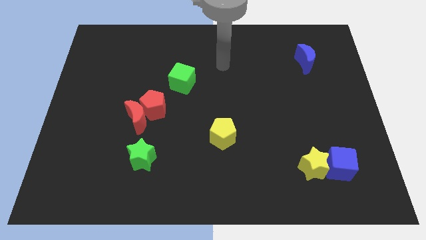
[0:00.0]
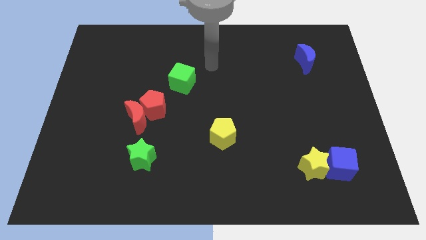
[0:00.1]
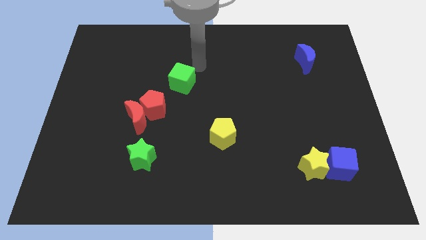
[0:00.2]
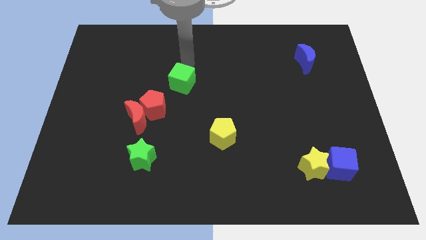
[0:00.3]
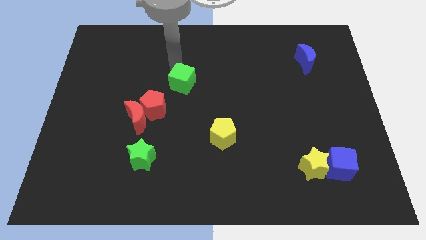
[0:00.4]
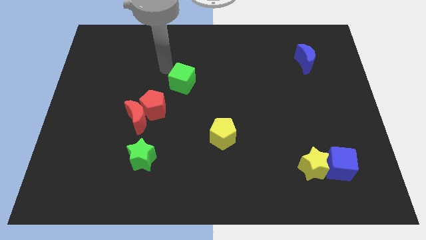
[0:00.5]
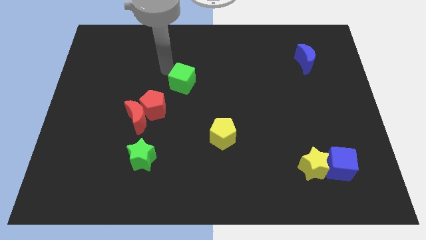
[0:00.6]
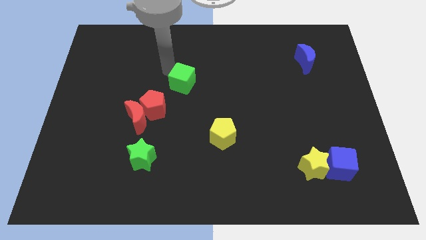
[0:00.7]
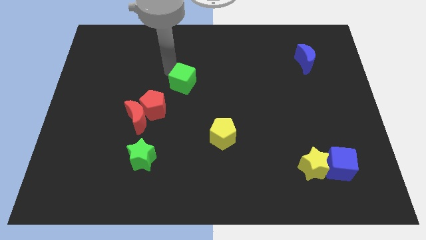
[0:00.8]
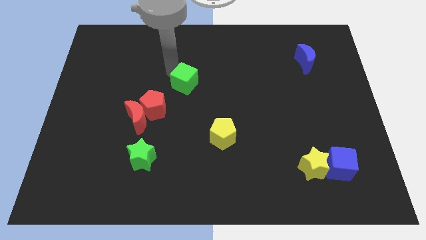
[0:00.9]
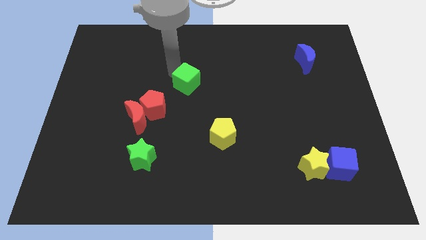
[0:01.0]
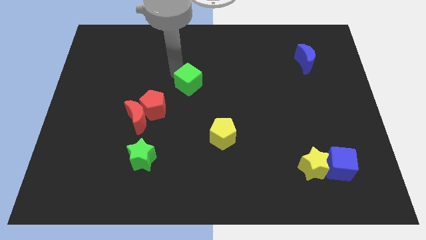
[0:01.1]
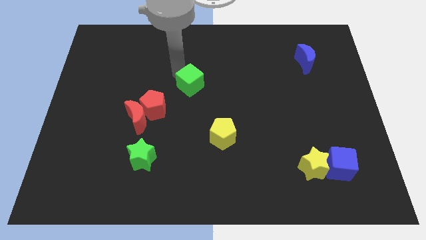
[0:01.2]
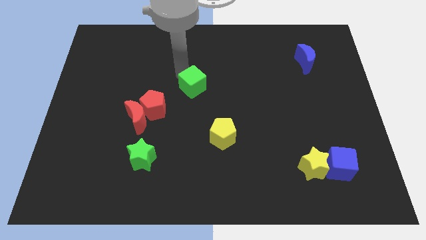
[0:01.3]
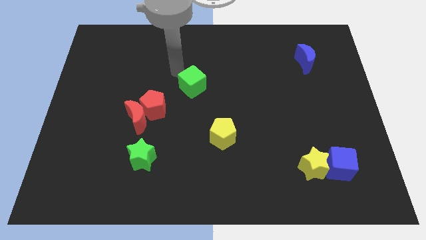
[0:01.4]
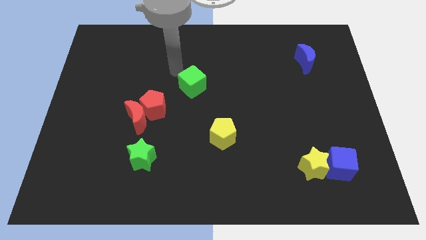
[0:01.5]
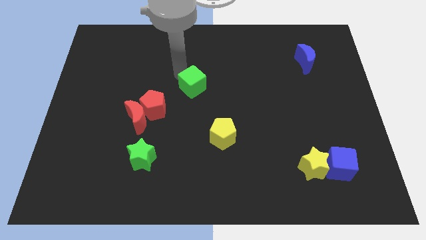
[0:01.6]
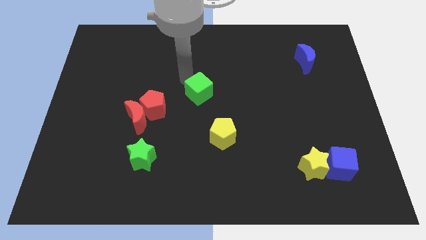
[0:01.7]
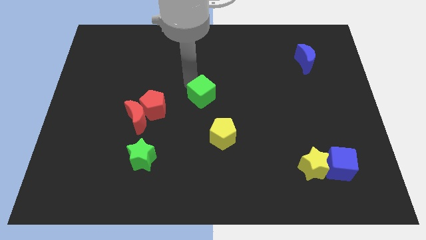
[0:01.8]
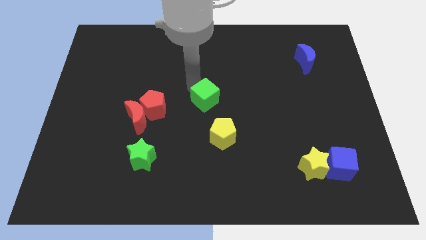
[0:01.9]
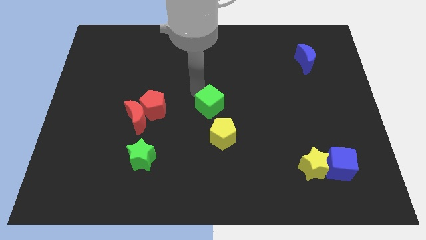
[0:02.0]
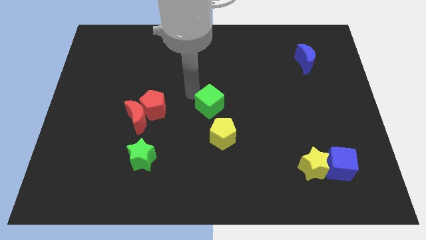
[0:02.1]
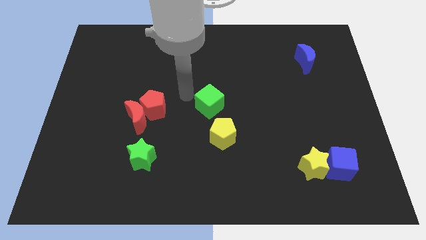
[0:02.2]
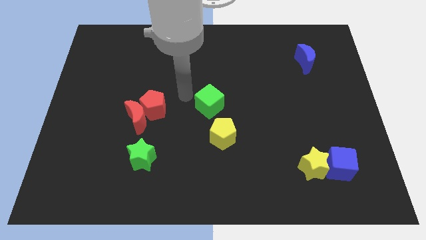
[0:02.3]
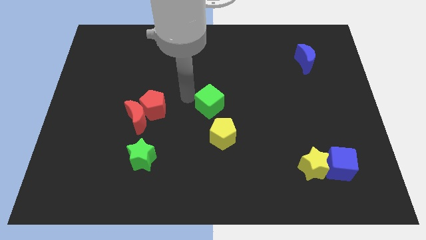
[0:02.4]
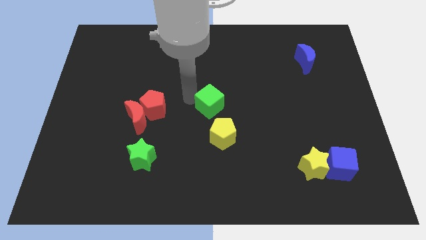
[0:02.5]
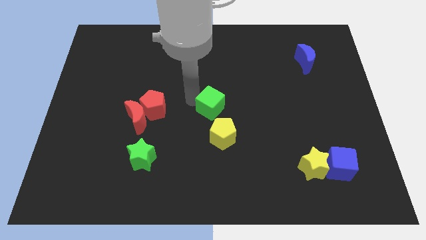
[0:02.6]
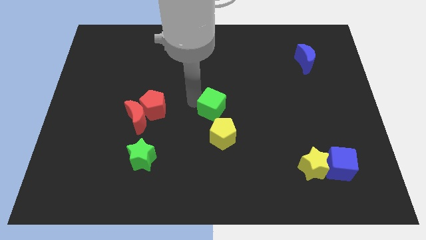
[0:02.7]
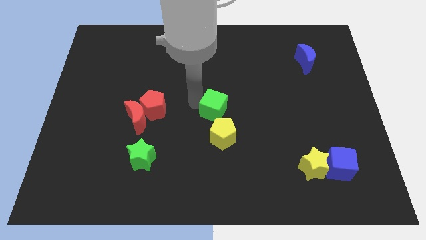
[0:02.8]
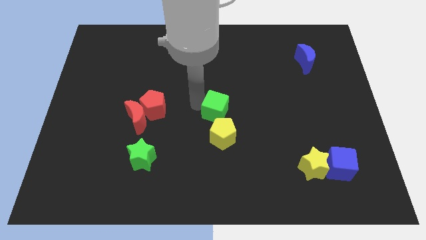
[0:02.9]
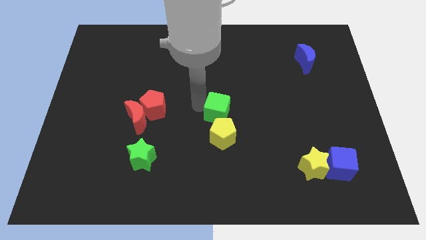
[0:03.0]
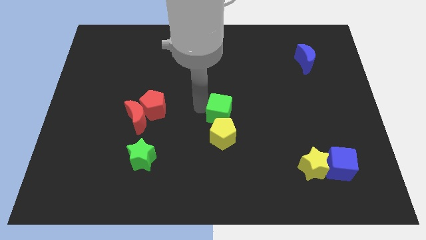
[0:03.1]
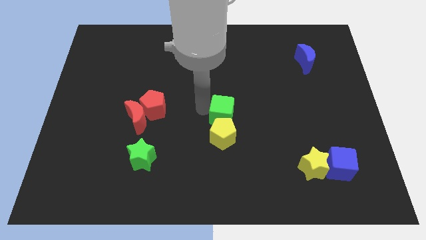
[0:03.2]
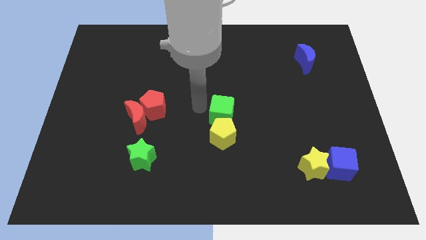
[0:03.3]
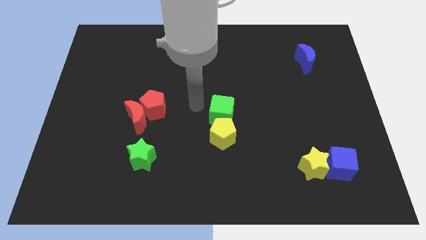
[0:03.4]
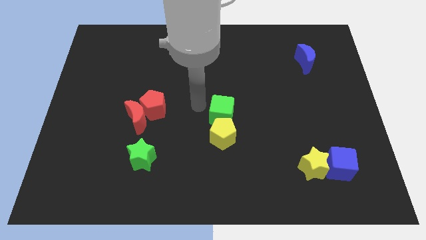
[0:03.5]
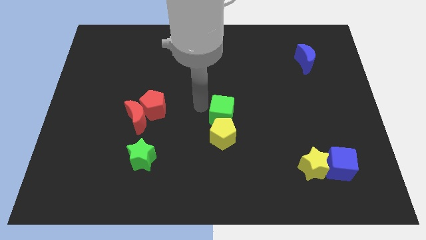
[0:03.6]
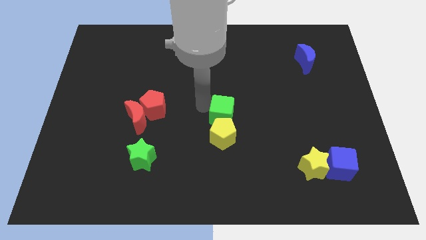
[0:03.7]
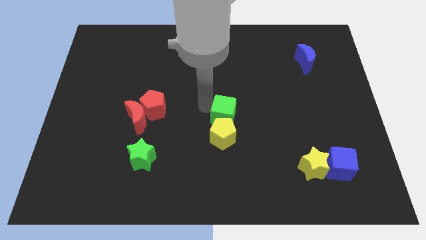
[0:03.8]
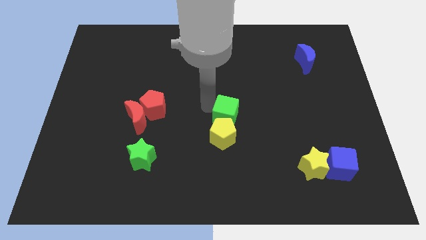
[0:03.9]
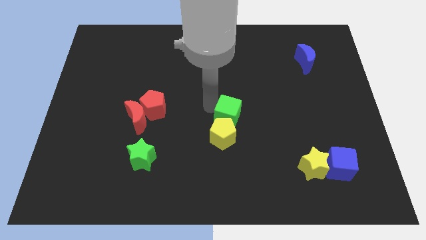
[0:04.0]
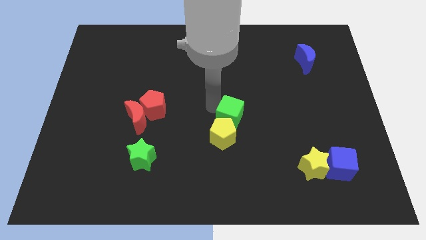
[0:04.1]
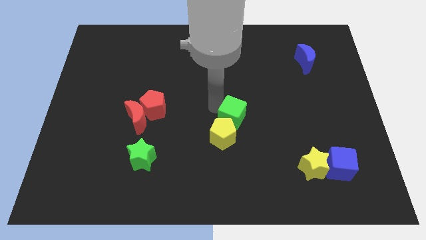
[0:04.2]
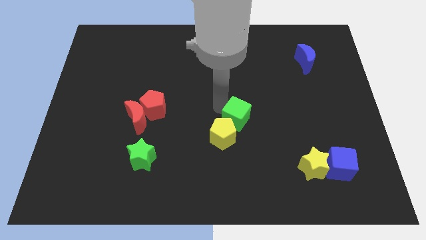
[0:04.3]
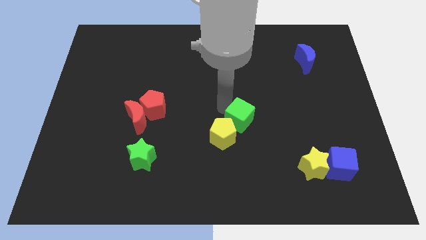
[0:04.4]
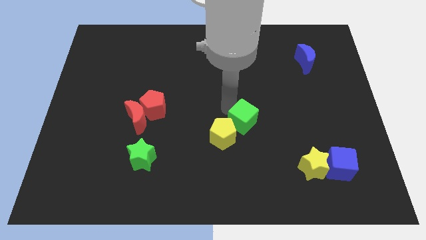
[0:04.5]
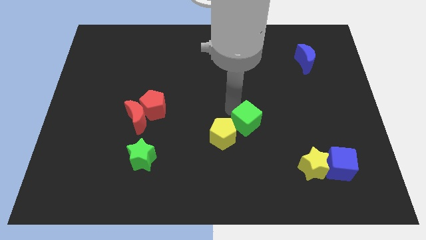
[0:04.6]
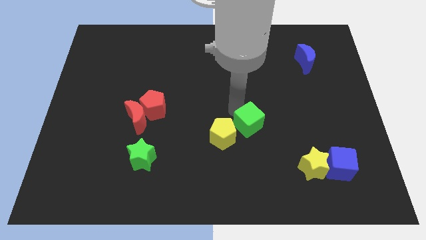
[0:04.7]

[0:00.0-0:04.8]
push the green cube downwards and to the right

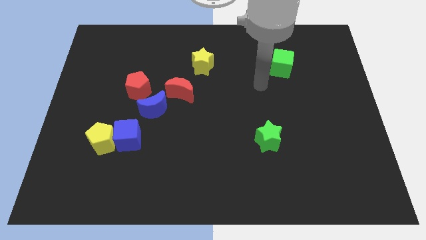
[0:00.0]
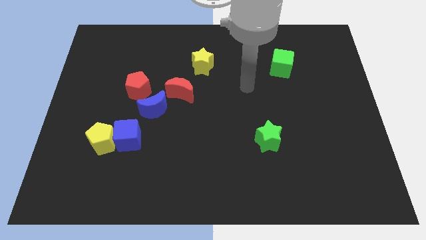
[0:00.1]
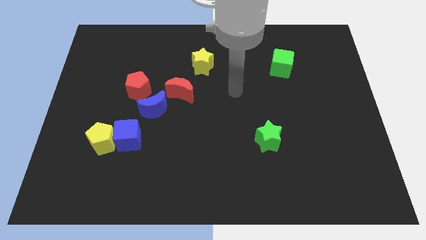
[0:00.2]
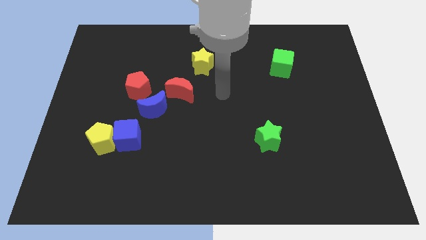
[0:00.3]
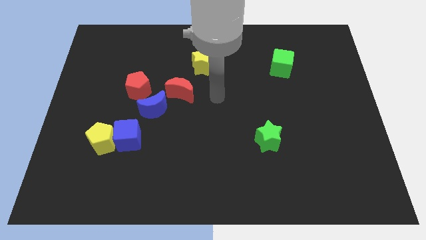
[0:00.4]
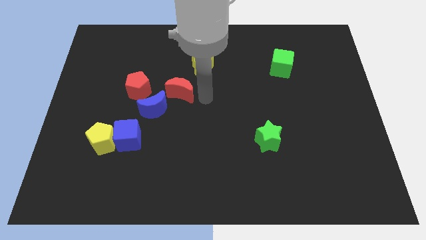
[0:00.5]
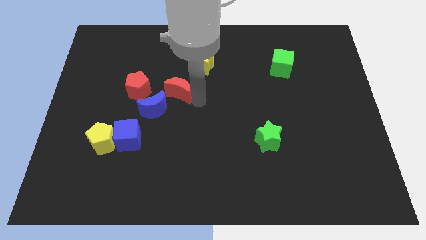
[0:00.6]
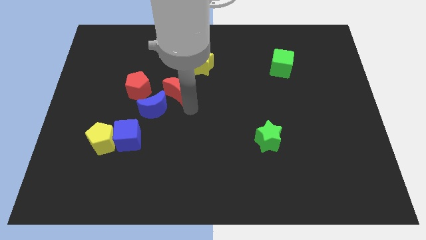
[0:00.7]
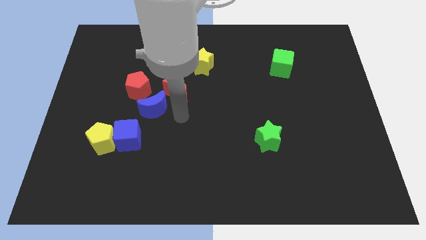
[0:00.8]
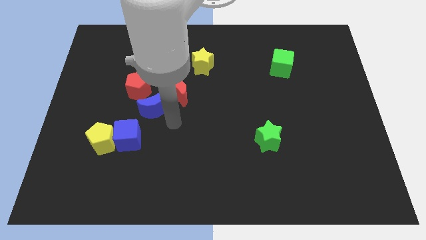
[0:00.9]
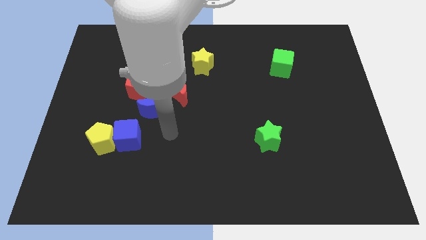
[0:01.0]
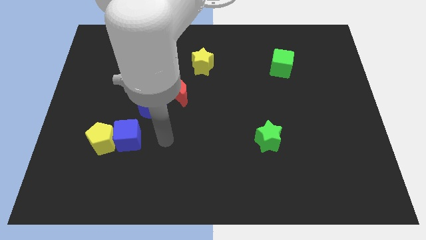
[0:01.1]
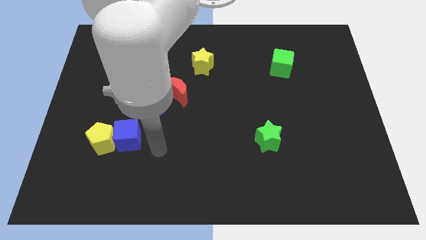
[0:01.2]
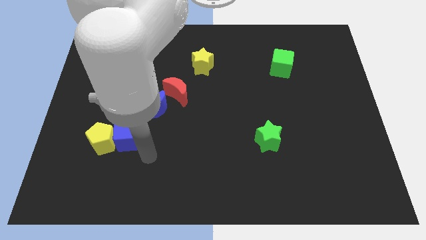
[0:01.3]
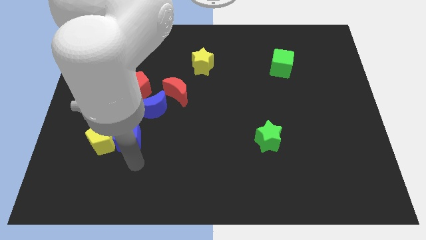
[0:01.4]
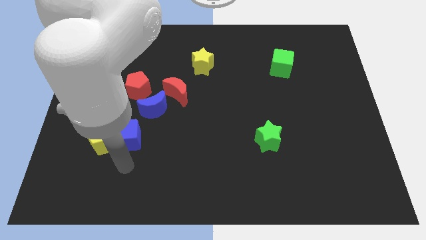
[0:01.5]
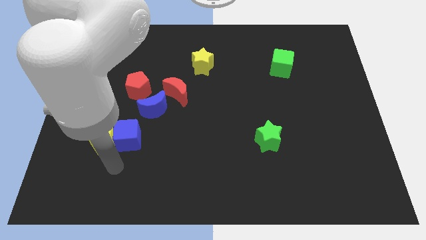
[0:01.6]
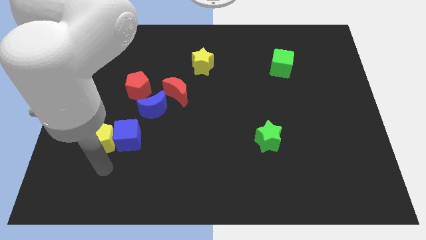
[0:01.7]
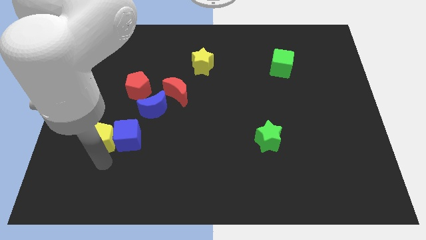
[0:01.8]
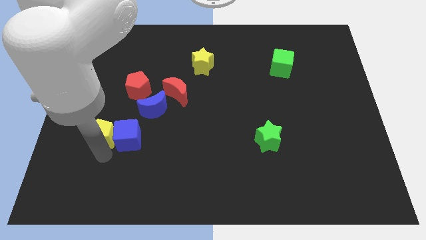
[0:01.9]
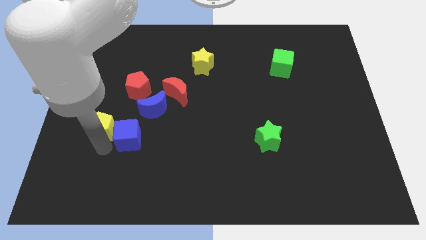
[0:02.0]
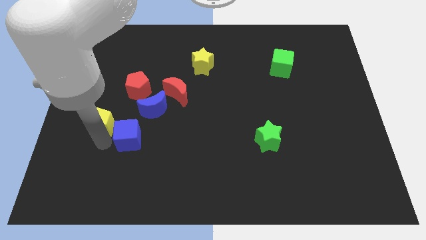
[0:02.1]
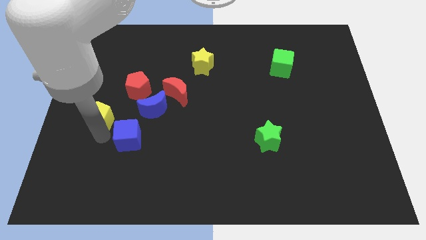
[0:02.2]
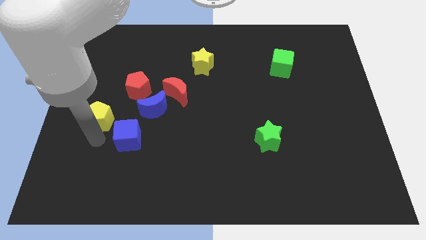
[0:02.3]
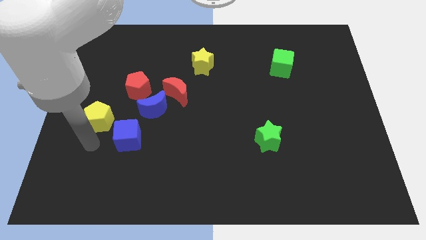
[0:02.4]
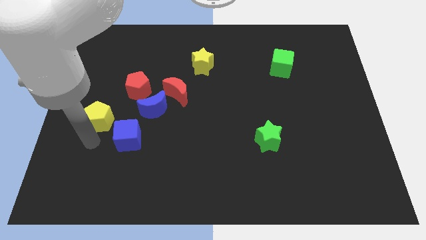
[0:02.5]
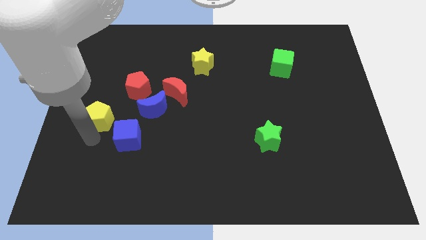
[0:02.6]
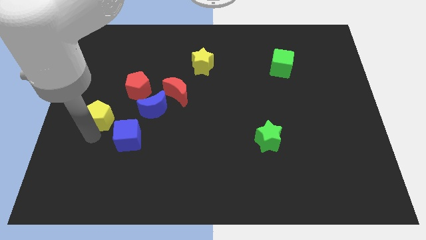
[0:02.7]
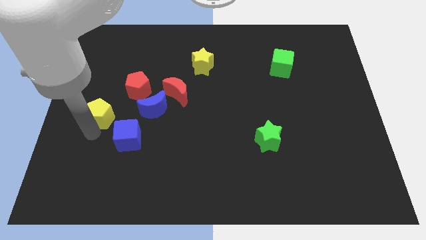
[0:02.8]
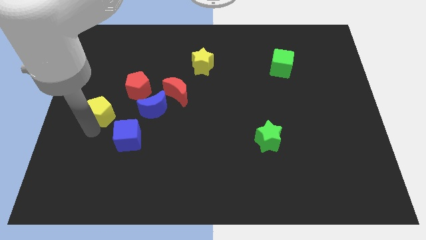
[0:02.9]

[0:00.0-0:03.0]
push the yellow pentagon a little up

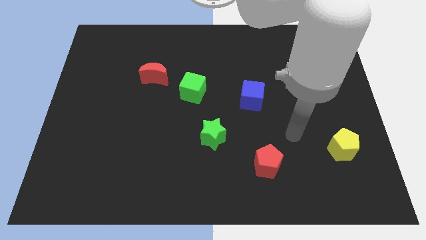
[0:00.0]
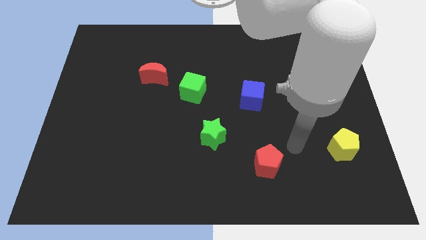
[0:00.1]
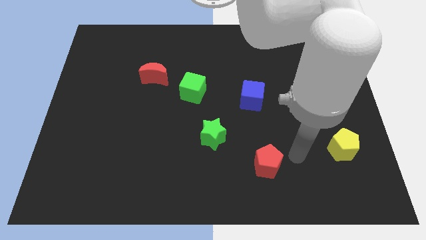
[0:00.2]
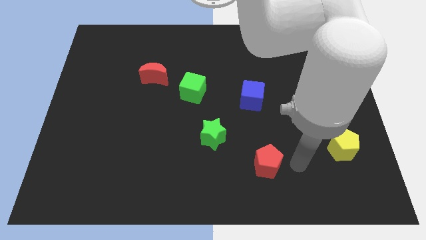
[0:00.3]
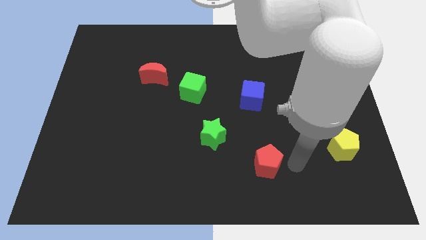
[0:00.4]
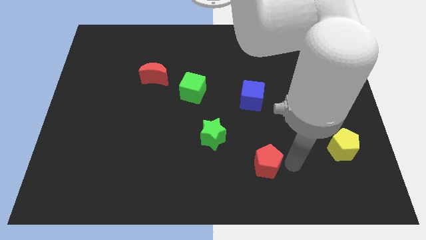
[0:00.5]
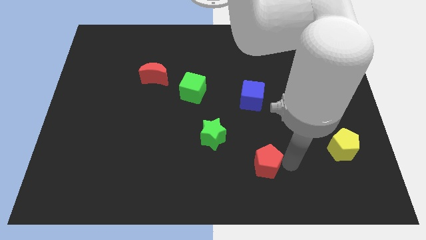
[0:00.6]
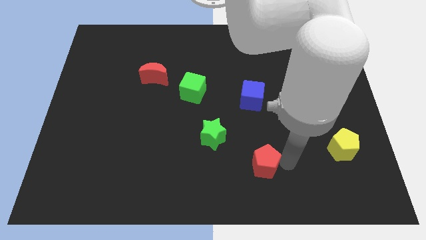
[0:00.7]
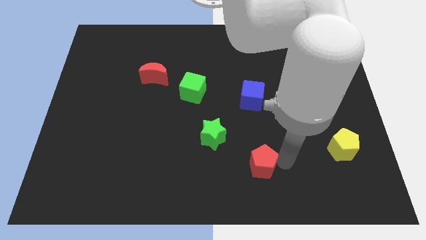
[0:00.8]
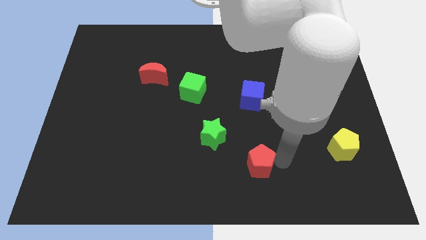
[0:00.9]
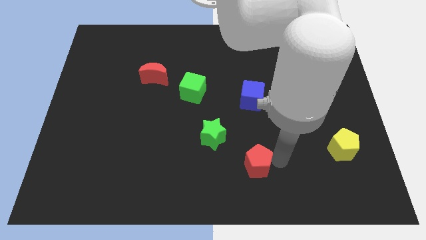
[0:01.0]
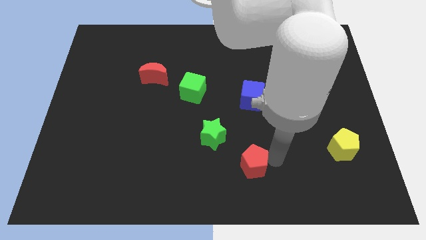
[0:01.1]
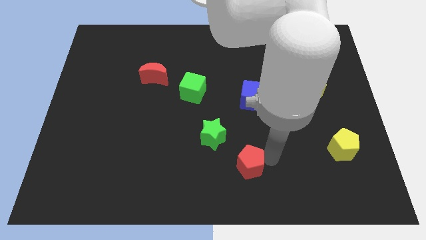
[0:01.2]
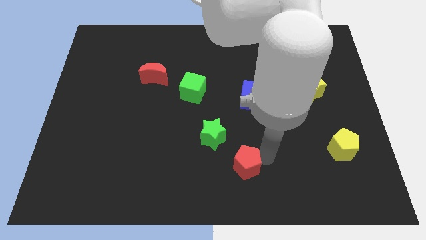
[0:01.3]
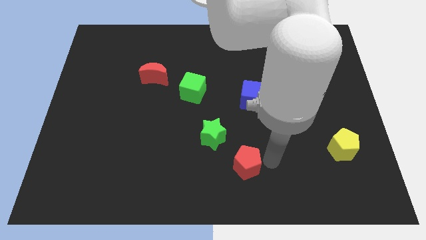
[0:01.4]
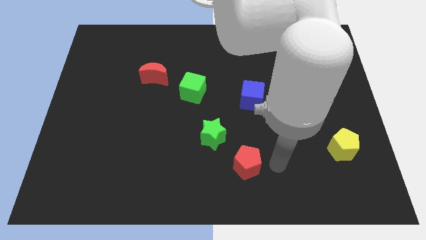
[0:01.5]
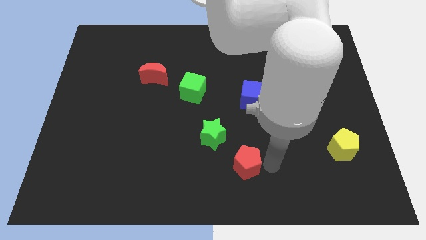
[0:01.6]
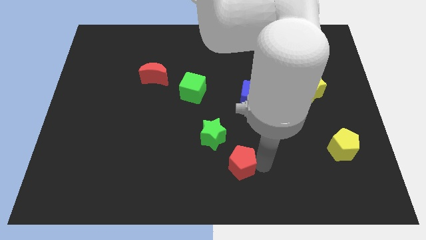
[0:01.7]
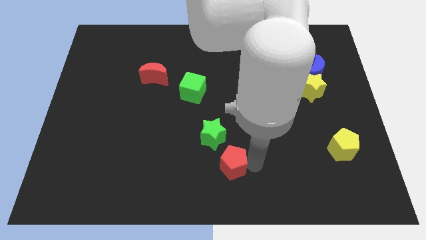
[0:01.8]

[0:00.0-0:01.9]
move the red pentagon a little to the left
